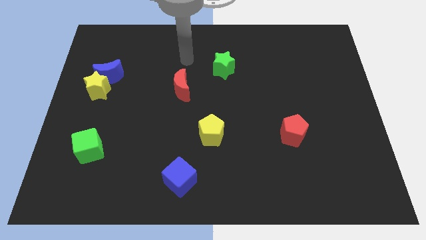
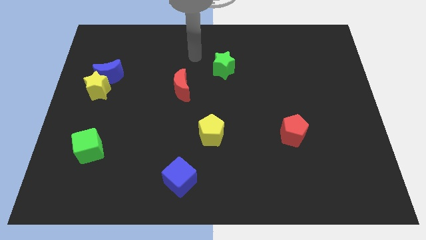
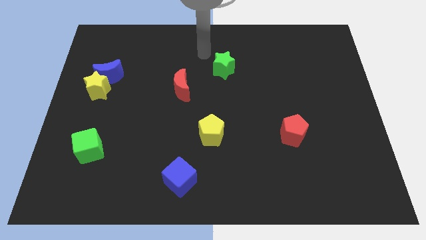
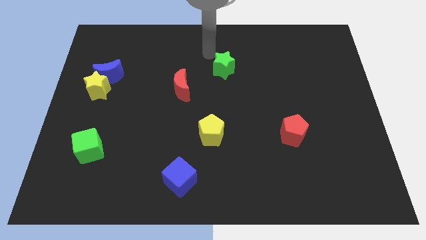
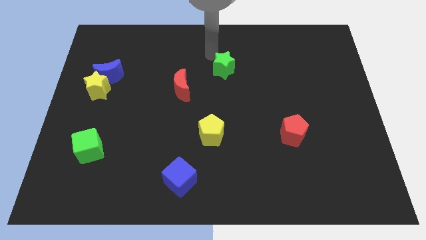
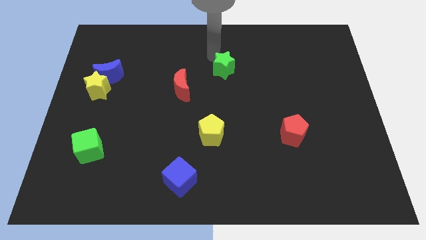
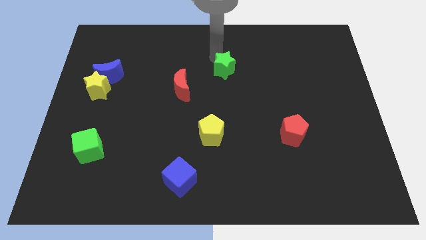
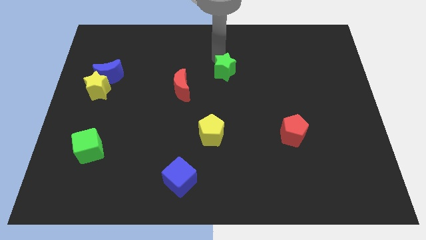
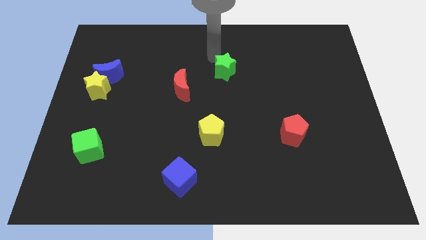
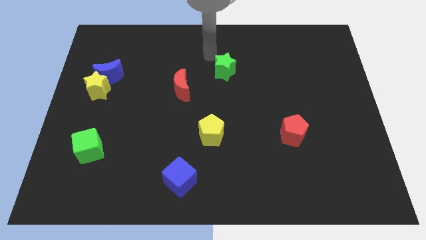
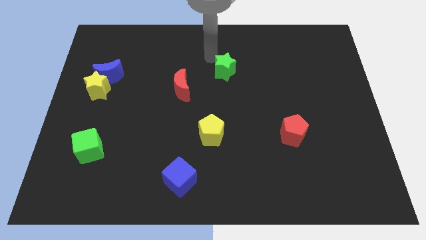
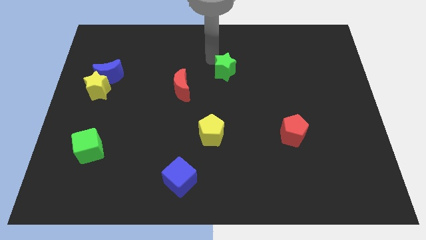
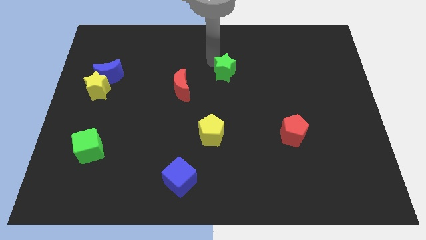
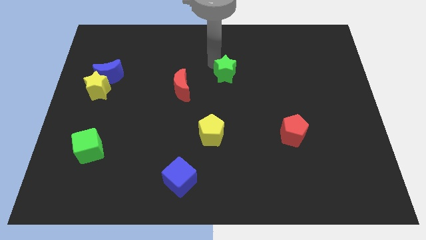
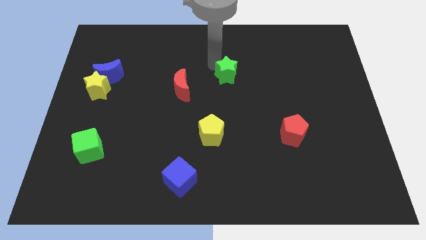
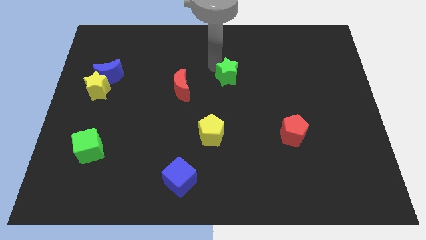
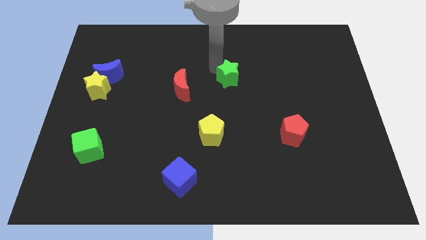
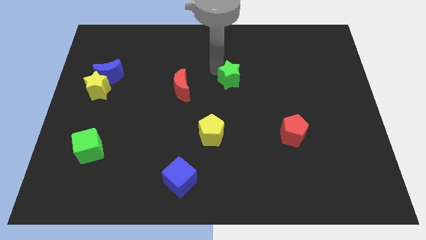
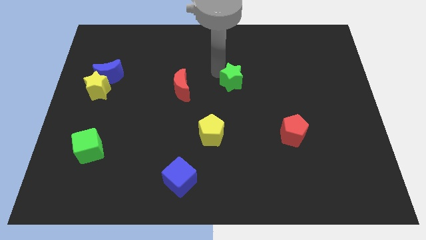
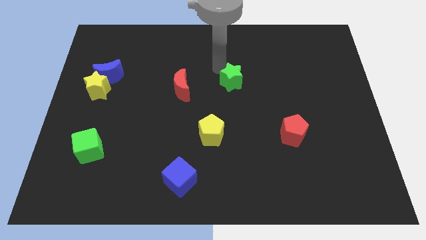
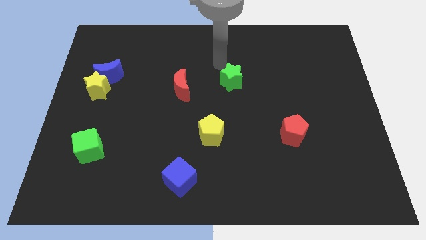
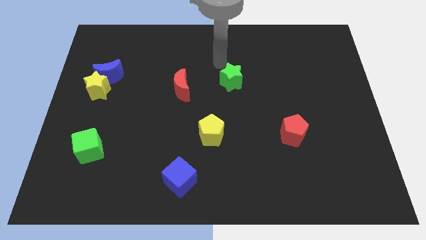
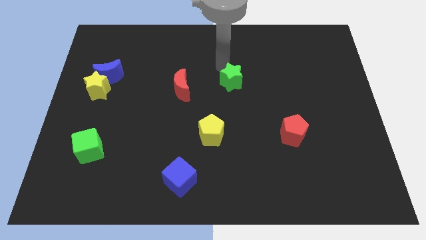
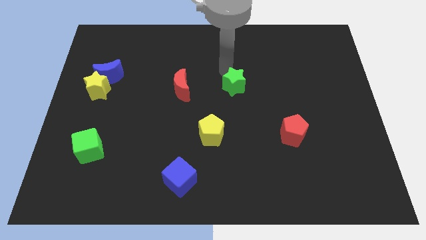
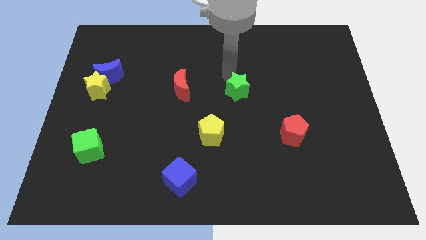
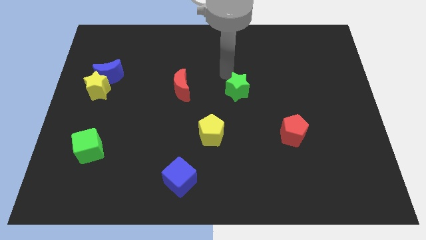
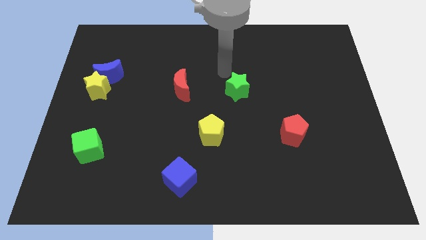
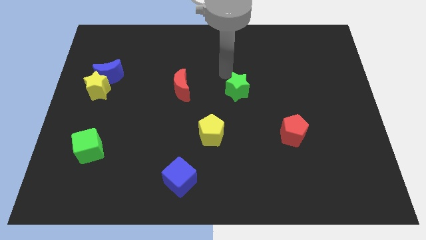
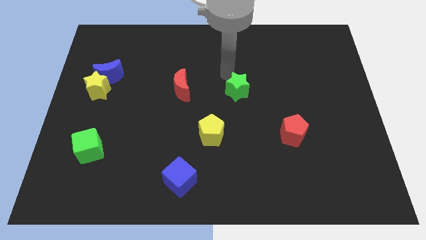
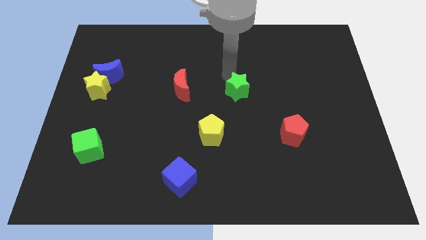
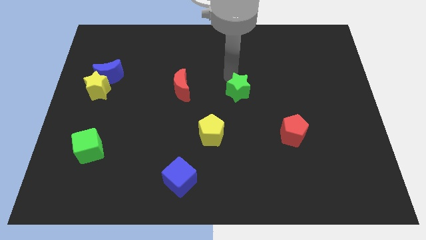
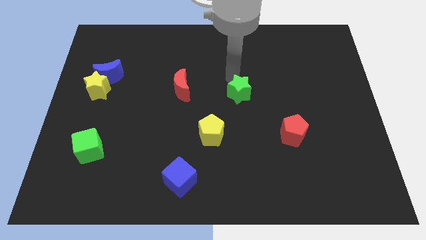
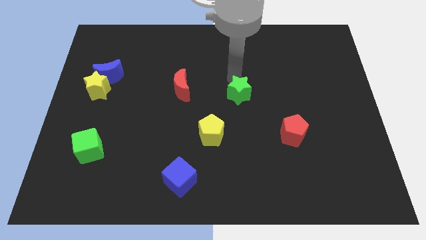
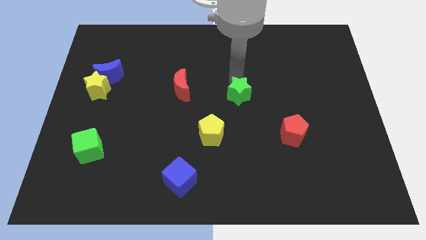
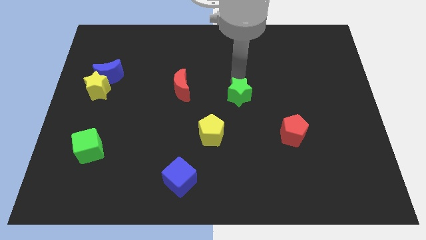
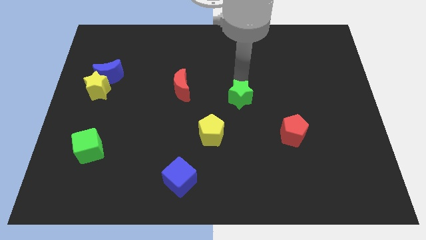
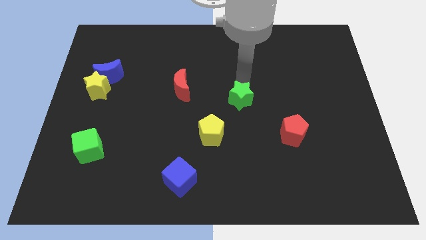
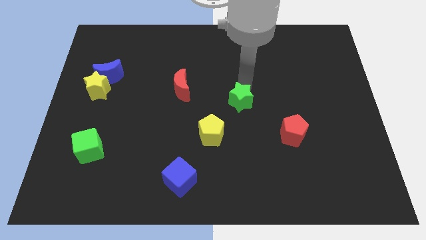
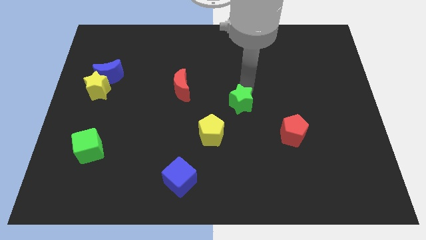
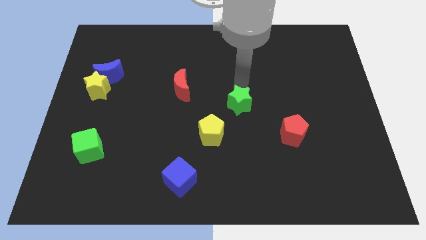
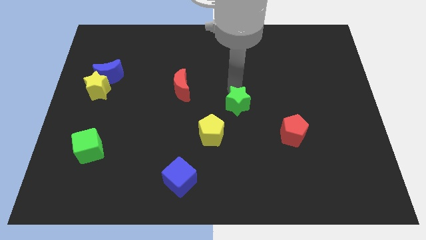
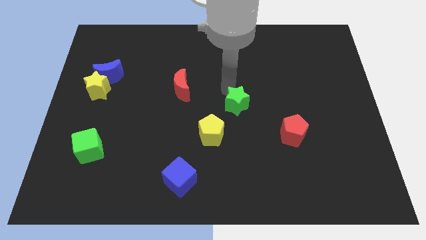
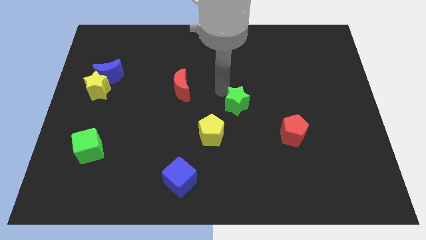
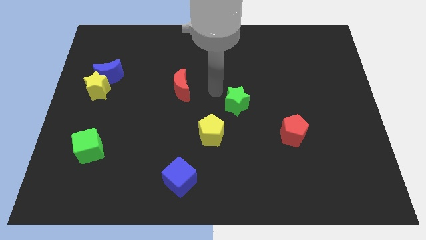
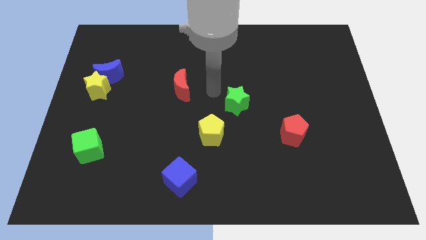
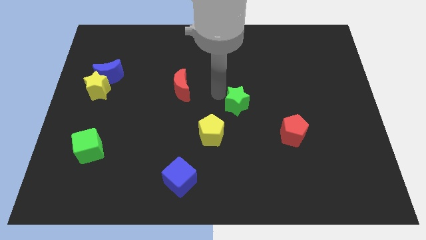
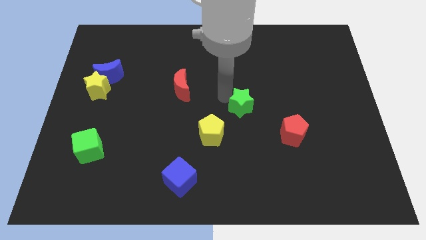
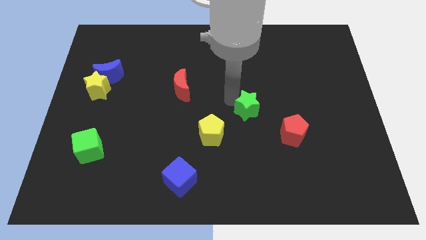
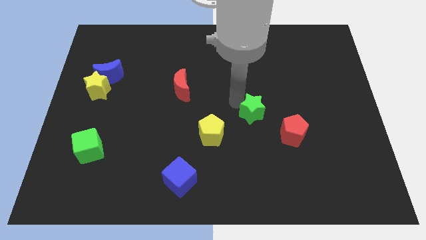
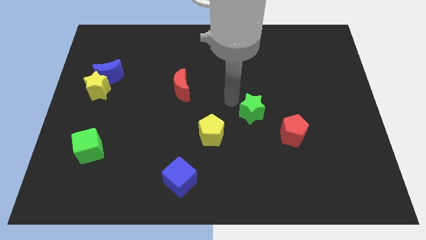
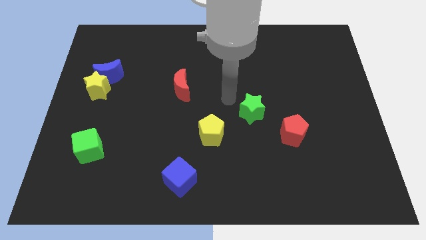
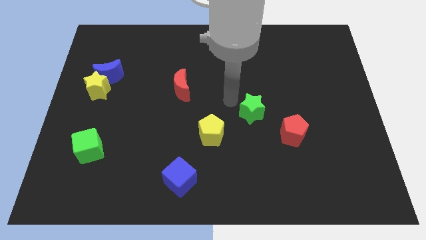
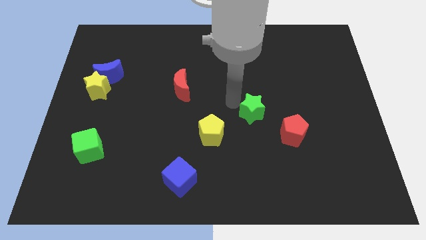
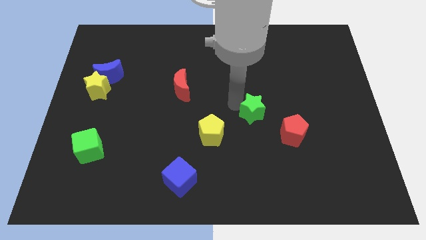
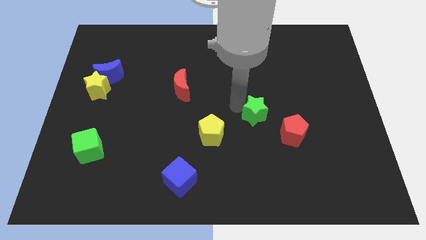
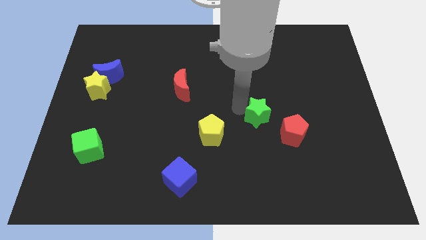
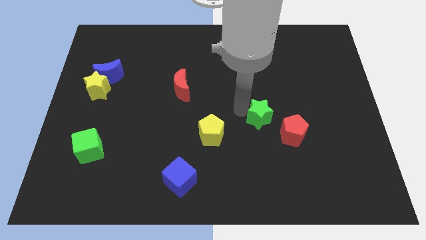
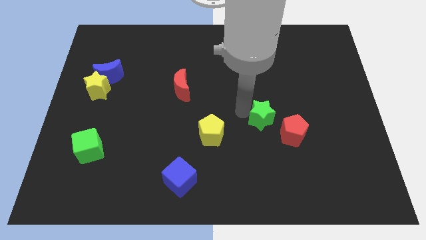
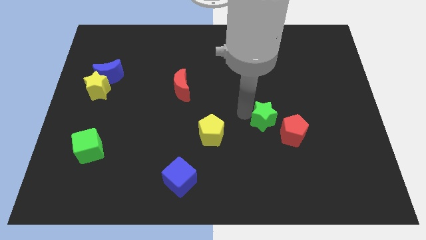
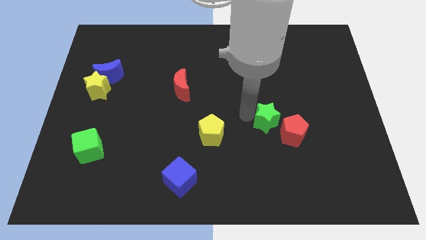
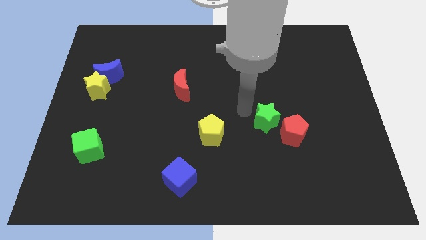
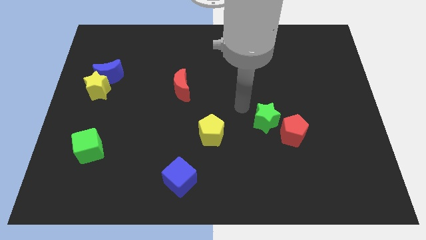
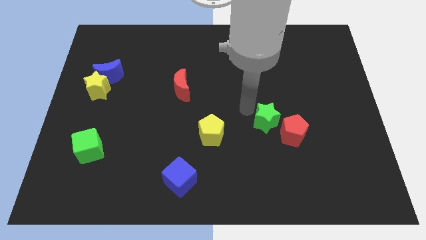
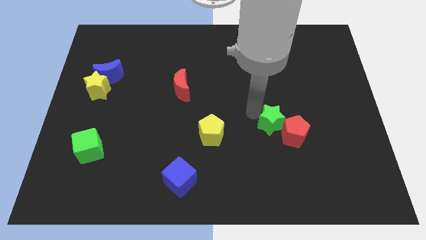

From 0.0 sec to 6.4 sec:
slide the green star to the red pentagon

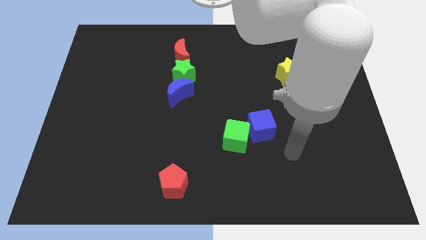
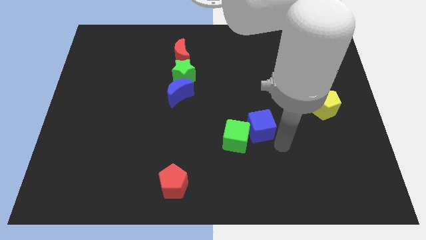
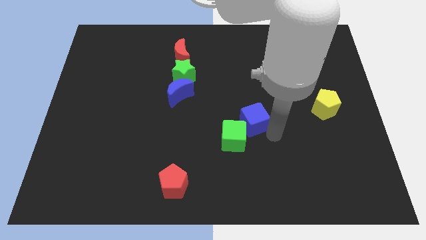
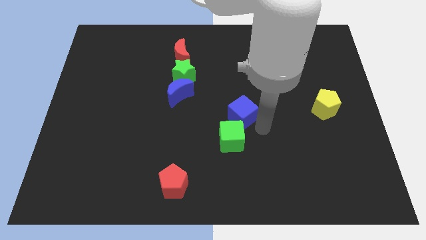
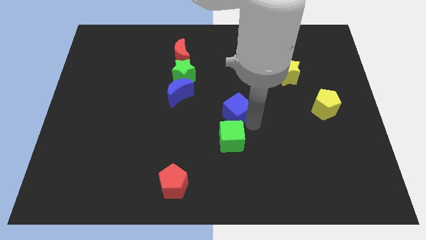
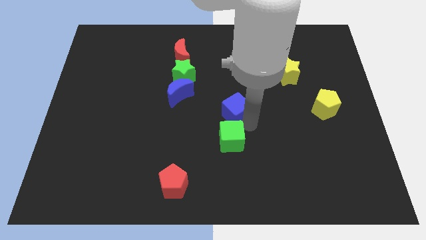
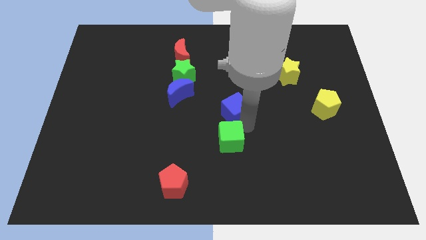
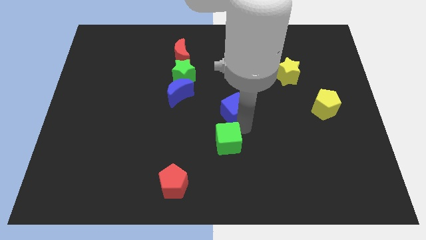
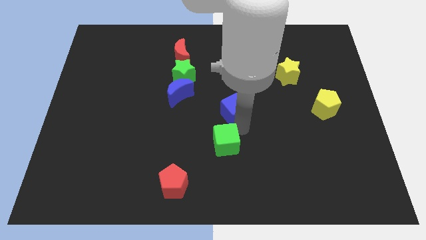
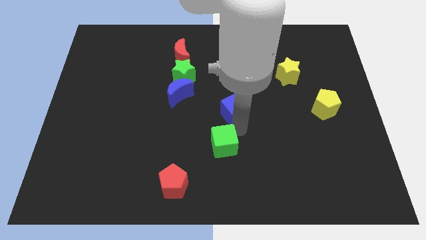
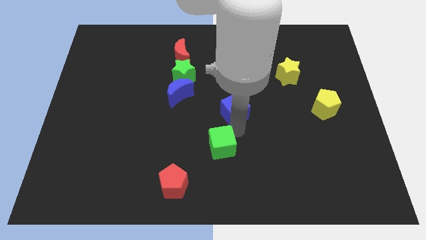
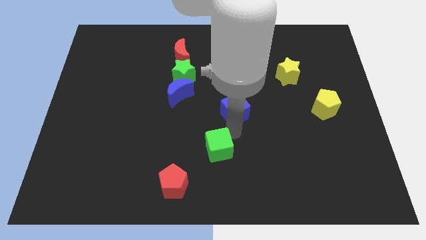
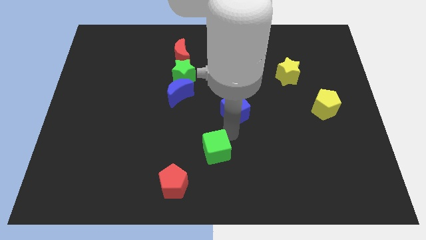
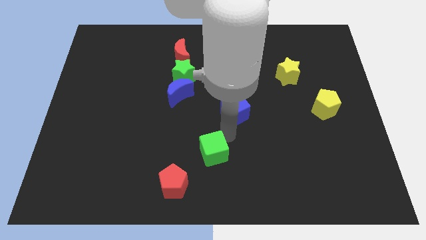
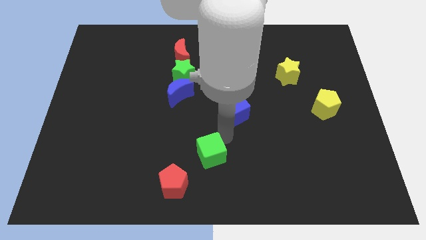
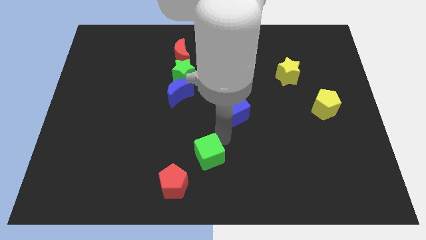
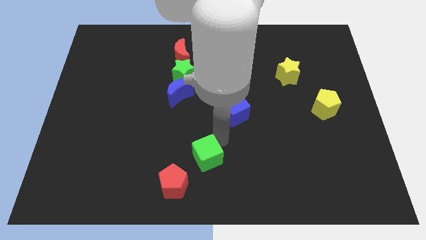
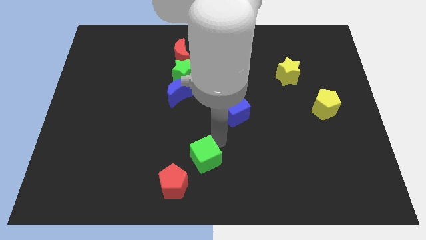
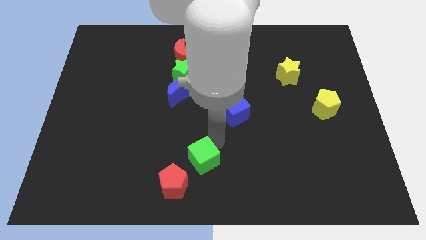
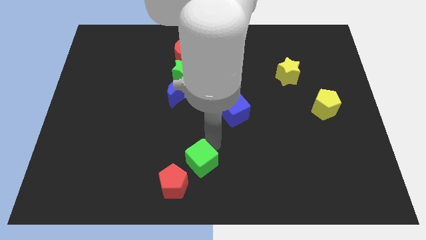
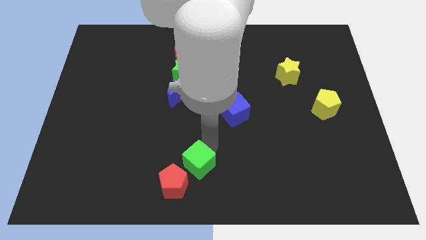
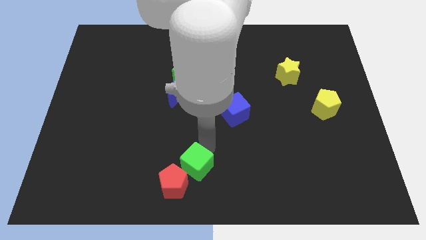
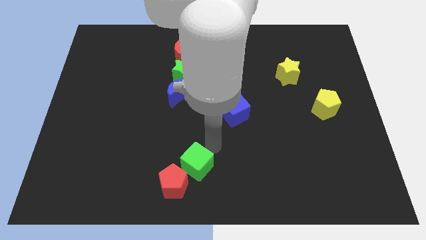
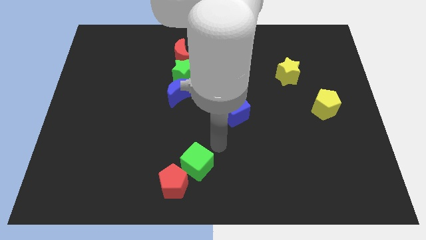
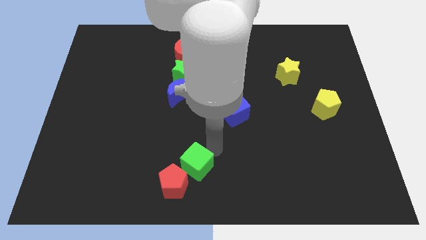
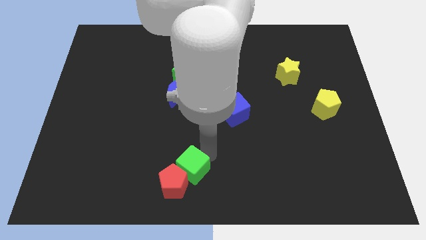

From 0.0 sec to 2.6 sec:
put the green cube to the red pentagon
